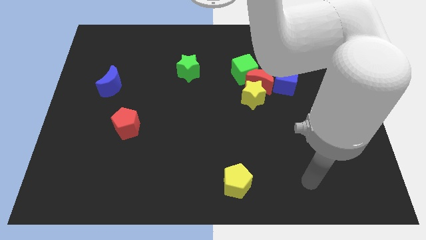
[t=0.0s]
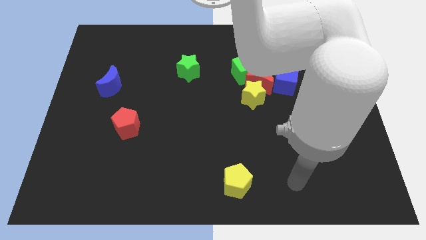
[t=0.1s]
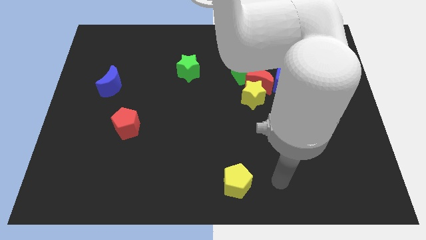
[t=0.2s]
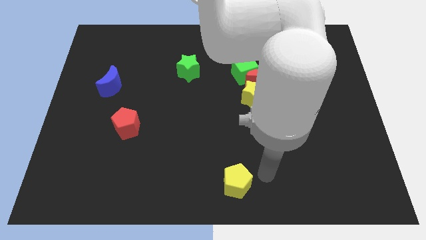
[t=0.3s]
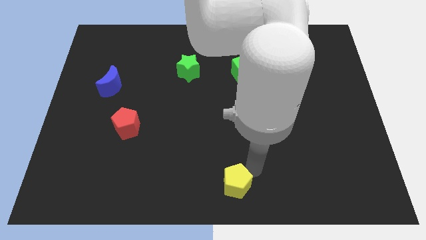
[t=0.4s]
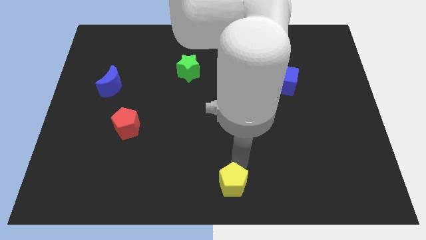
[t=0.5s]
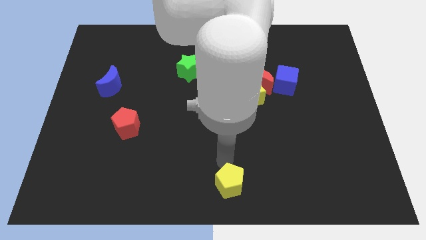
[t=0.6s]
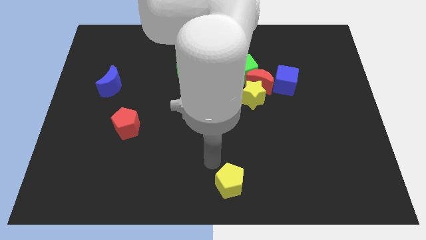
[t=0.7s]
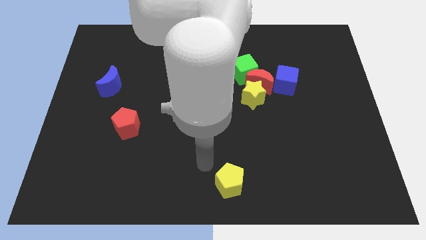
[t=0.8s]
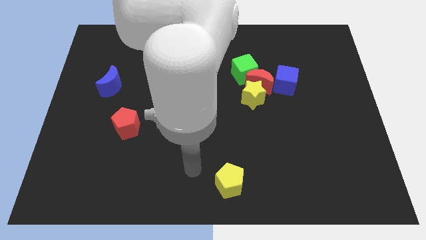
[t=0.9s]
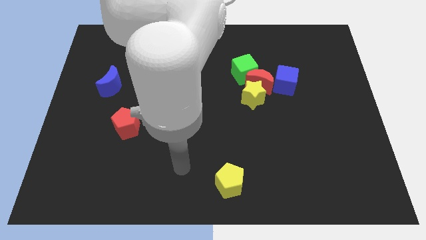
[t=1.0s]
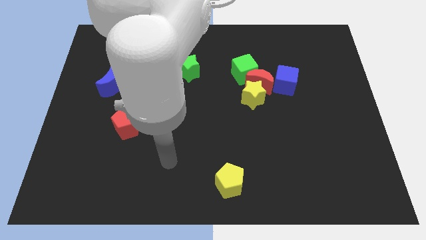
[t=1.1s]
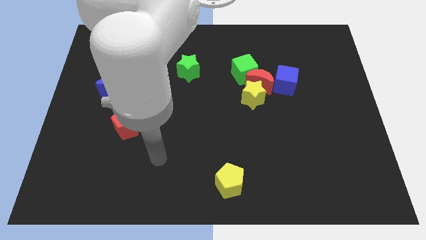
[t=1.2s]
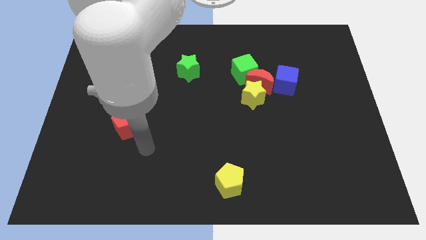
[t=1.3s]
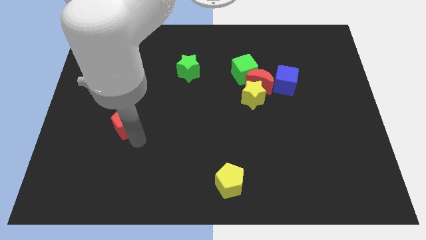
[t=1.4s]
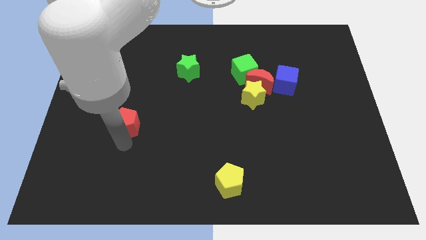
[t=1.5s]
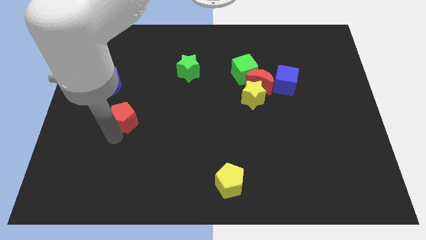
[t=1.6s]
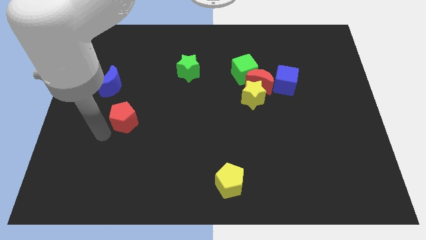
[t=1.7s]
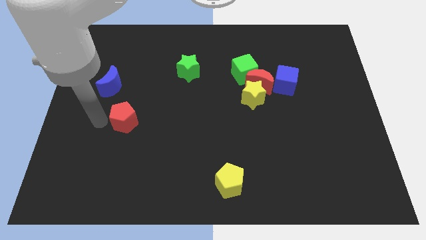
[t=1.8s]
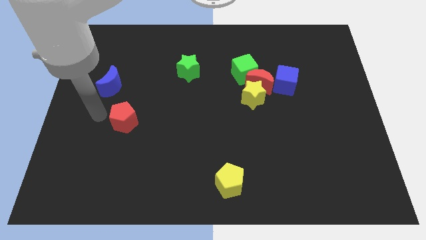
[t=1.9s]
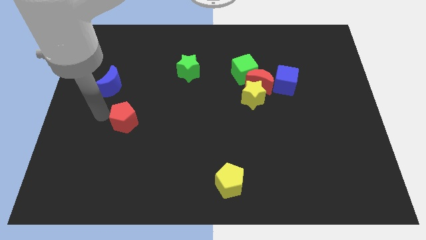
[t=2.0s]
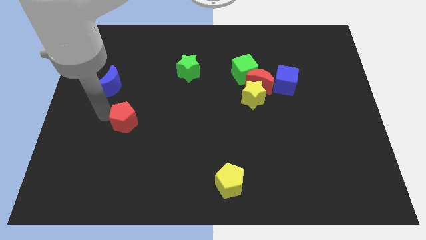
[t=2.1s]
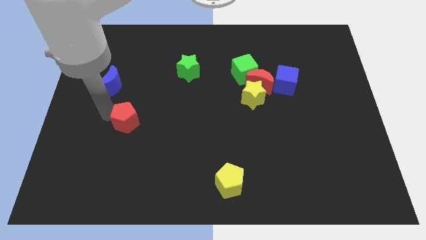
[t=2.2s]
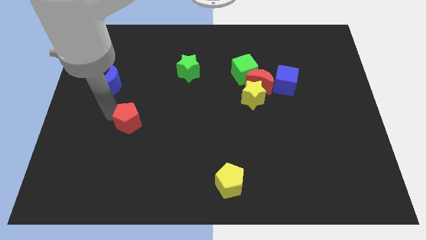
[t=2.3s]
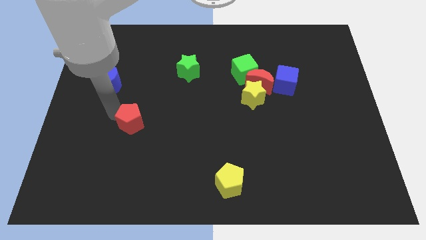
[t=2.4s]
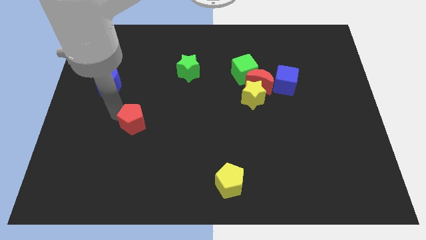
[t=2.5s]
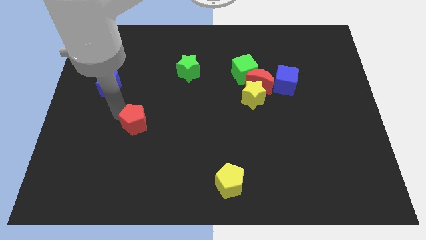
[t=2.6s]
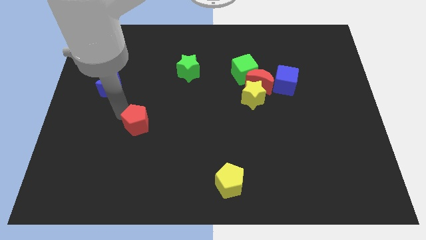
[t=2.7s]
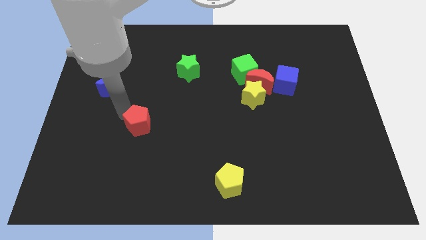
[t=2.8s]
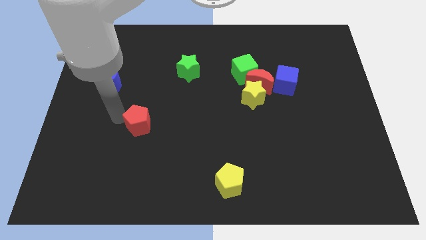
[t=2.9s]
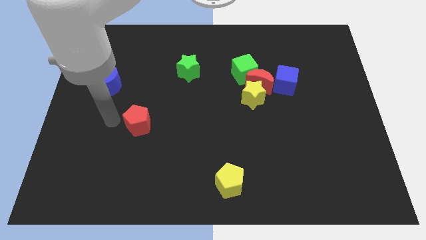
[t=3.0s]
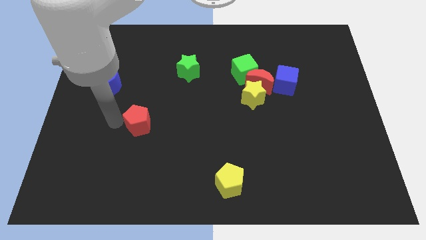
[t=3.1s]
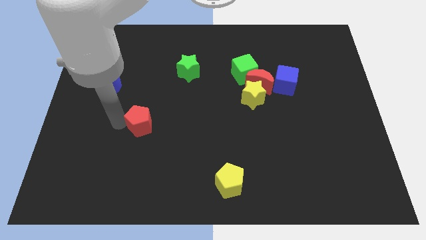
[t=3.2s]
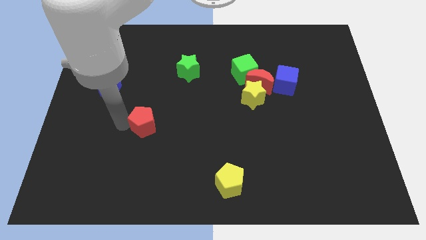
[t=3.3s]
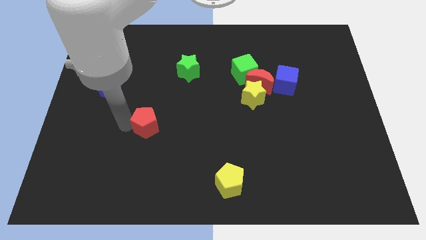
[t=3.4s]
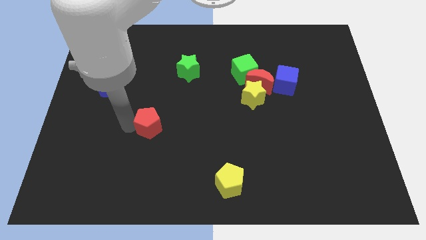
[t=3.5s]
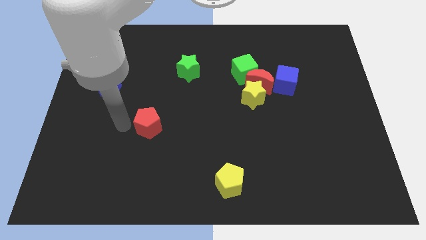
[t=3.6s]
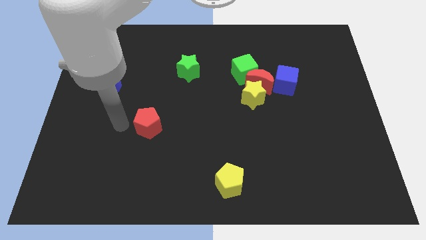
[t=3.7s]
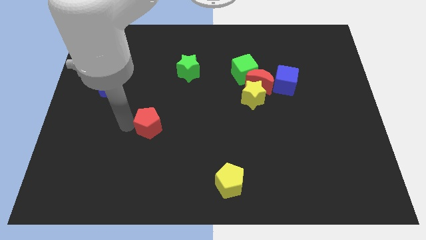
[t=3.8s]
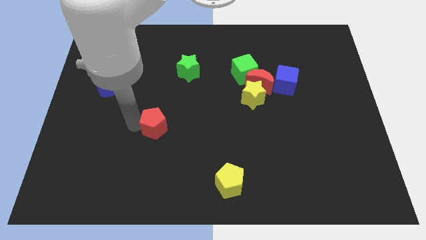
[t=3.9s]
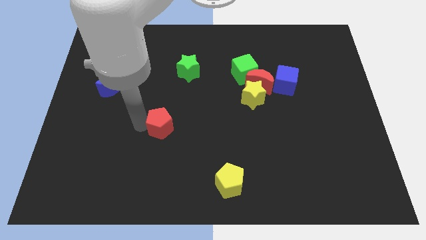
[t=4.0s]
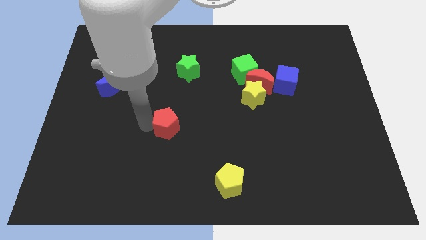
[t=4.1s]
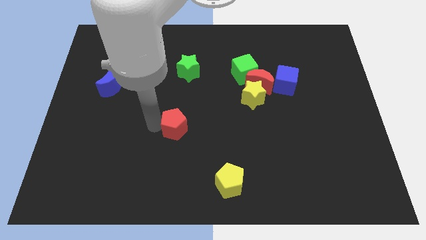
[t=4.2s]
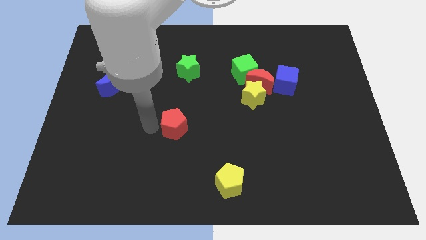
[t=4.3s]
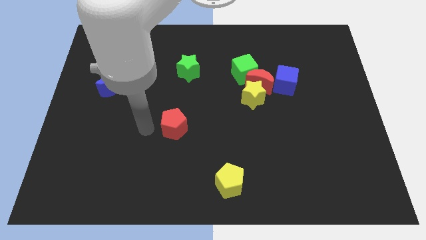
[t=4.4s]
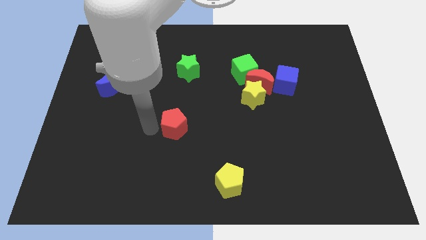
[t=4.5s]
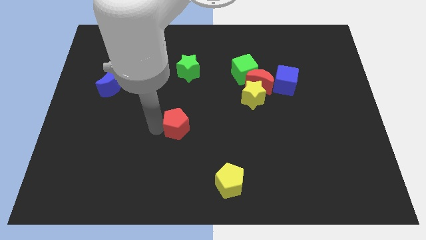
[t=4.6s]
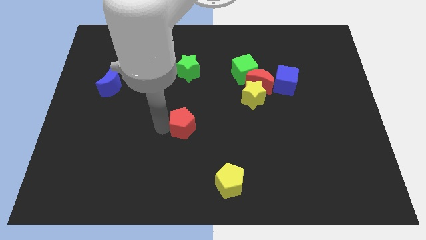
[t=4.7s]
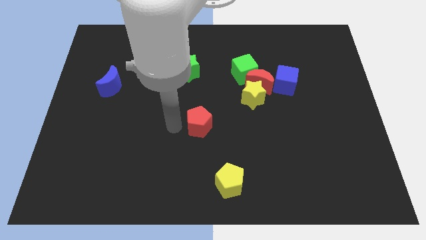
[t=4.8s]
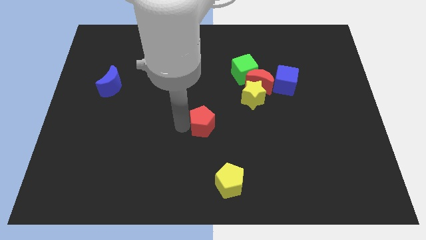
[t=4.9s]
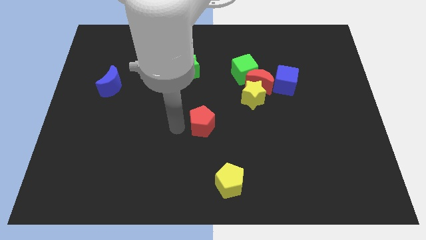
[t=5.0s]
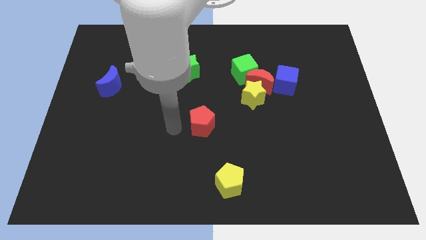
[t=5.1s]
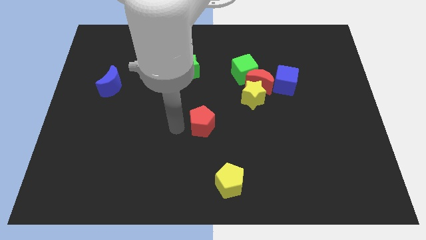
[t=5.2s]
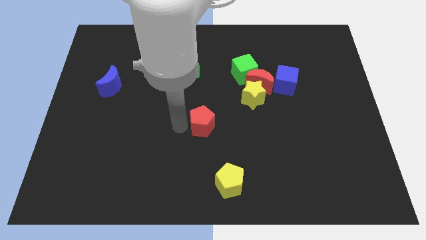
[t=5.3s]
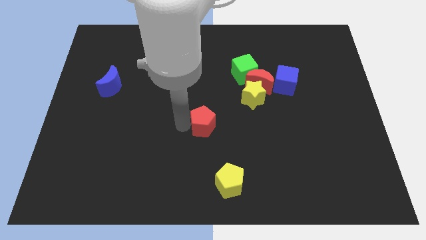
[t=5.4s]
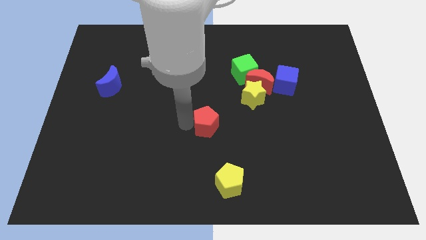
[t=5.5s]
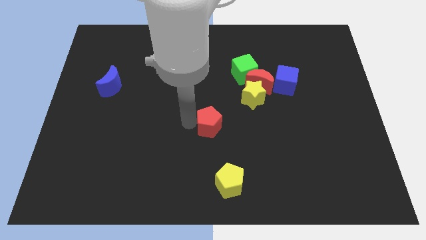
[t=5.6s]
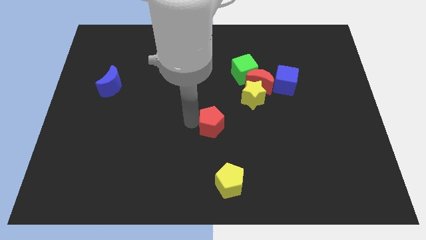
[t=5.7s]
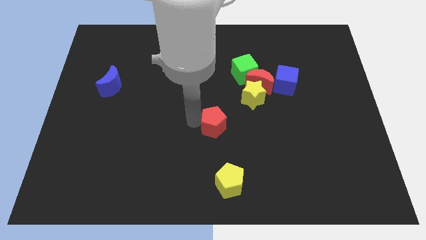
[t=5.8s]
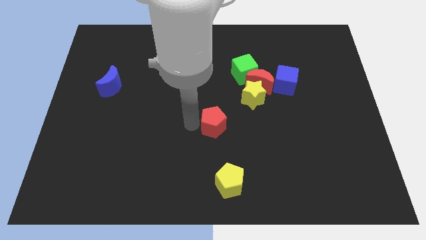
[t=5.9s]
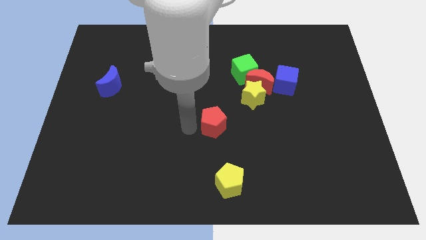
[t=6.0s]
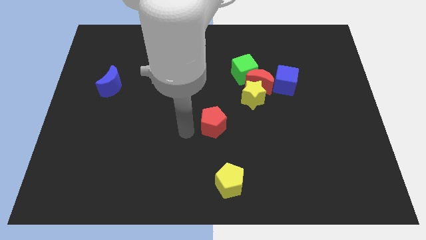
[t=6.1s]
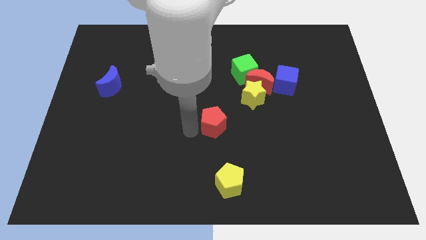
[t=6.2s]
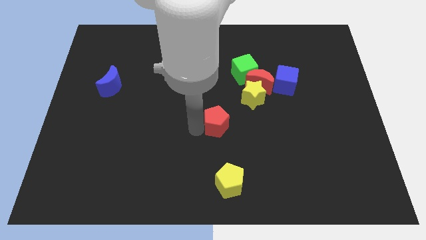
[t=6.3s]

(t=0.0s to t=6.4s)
slide the red pentagon to the right

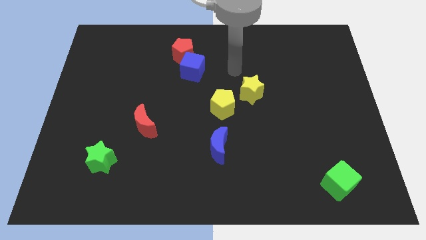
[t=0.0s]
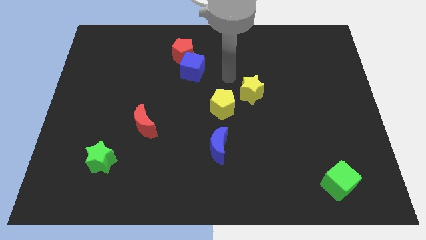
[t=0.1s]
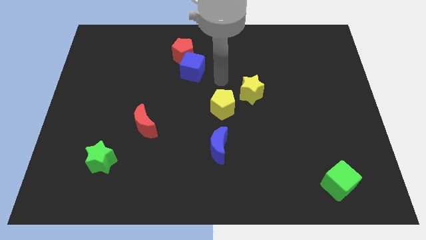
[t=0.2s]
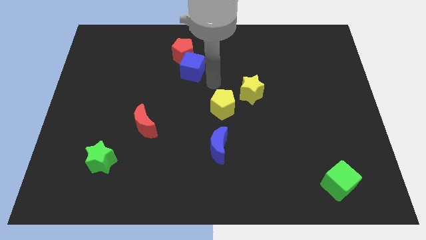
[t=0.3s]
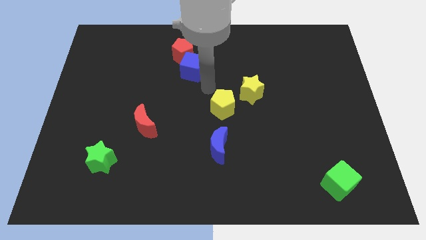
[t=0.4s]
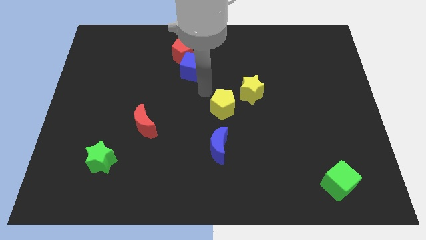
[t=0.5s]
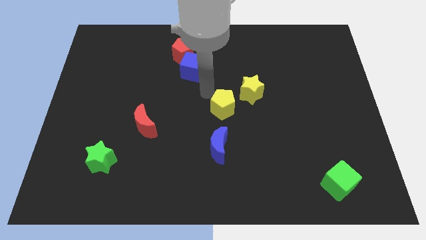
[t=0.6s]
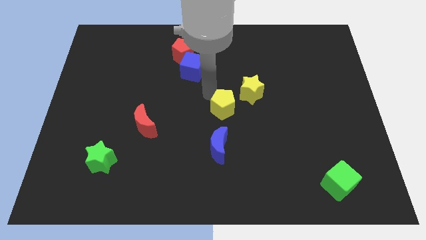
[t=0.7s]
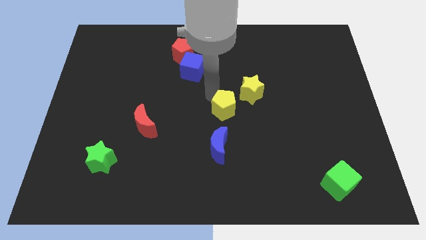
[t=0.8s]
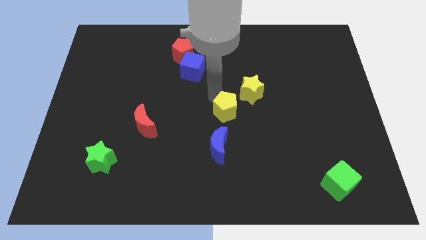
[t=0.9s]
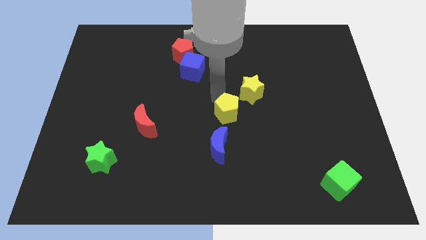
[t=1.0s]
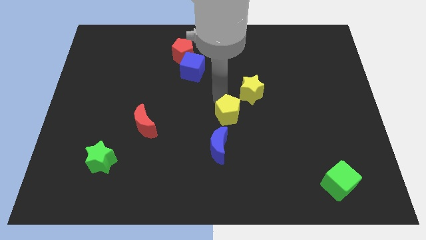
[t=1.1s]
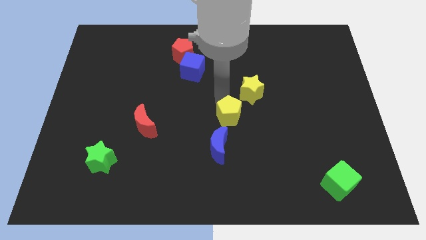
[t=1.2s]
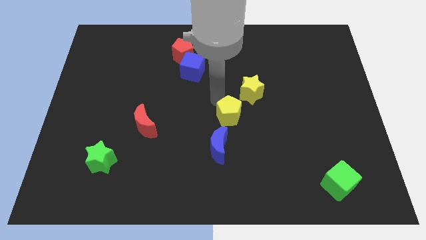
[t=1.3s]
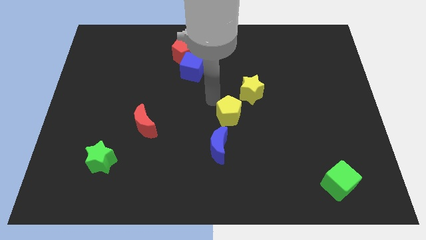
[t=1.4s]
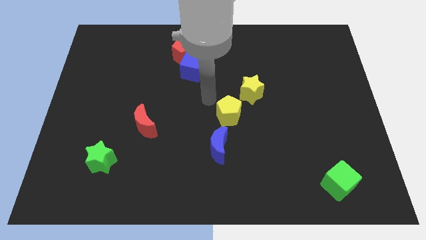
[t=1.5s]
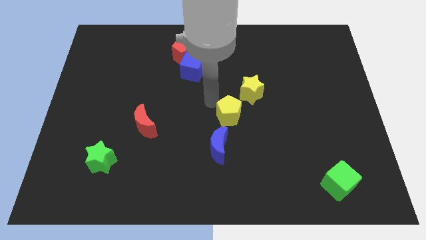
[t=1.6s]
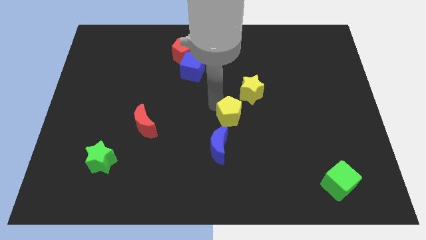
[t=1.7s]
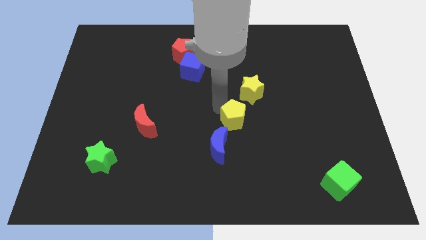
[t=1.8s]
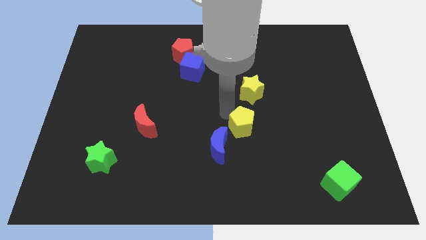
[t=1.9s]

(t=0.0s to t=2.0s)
slightly move the yellow pentagon down and right
